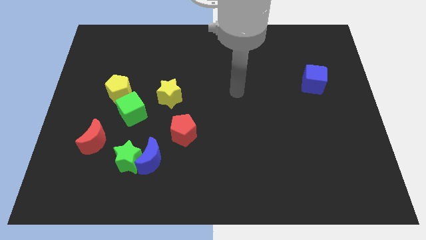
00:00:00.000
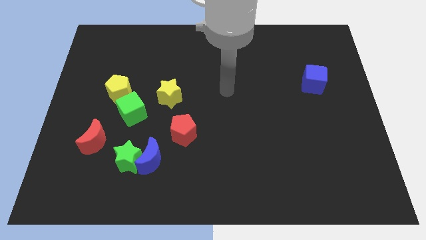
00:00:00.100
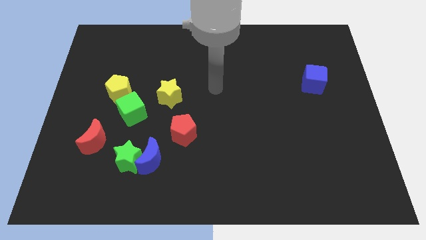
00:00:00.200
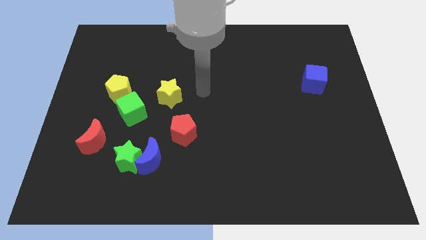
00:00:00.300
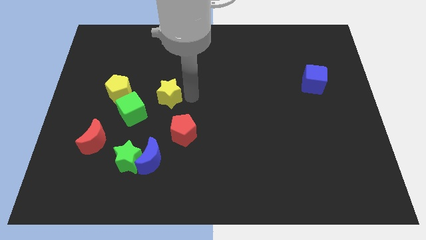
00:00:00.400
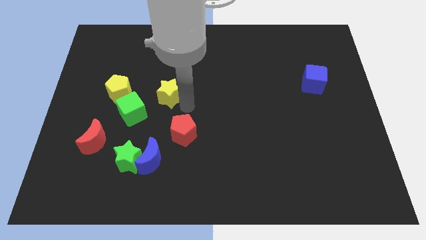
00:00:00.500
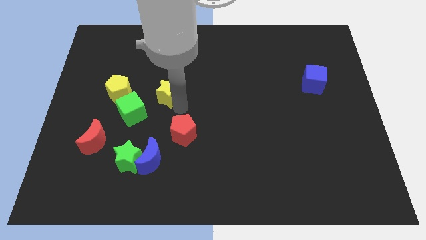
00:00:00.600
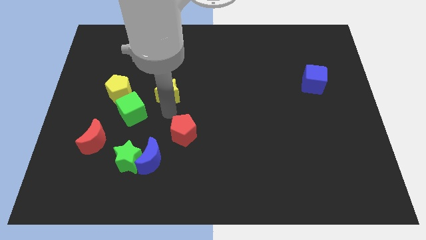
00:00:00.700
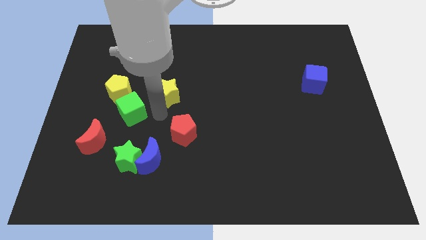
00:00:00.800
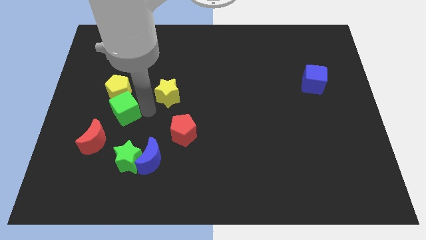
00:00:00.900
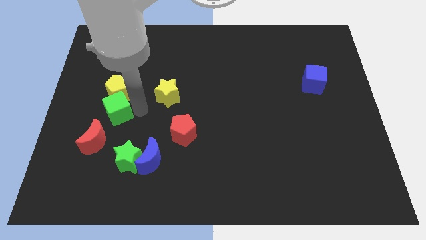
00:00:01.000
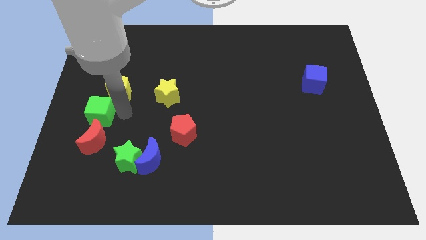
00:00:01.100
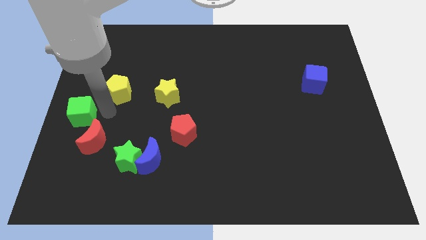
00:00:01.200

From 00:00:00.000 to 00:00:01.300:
pull the yellow pentagon apart from the green cube

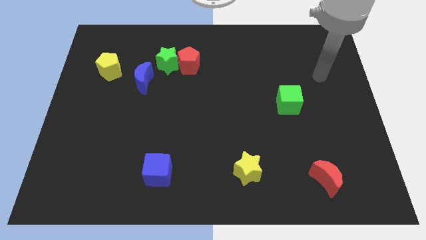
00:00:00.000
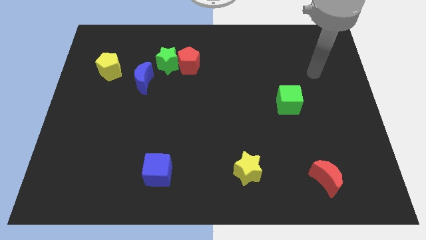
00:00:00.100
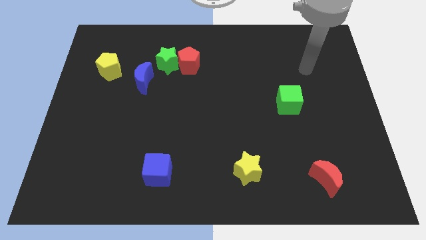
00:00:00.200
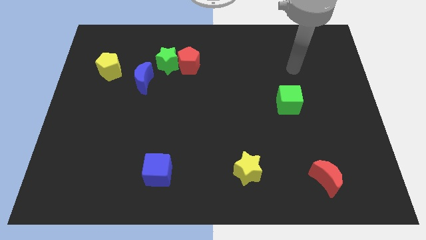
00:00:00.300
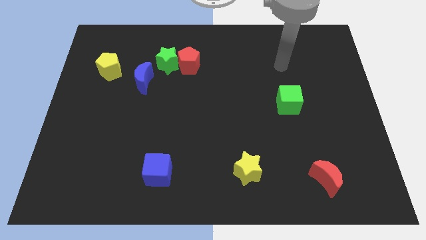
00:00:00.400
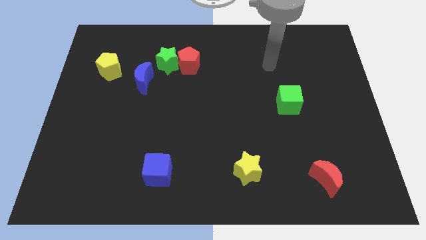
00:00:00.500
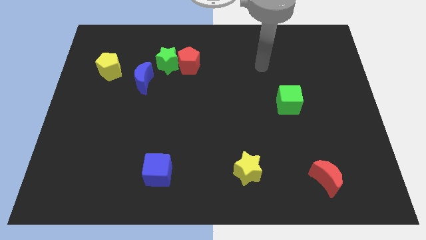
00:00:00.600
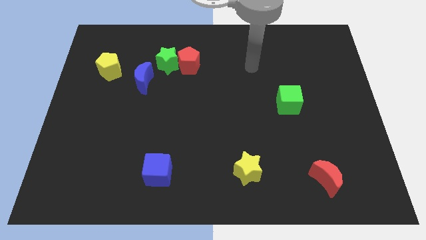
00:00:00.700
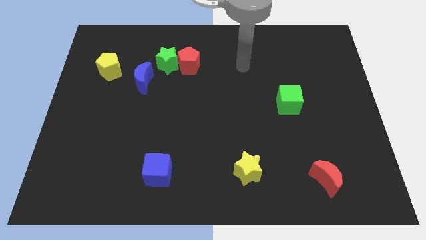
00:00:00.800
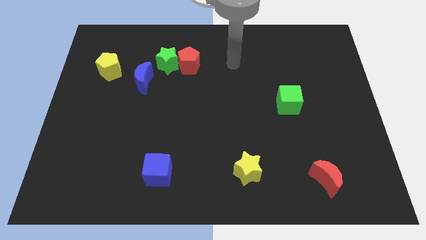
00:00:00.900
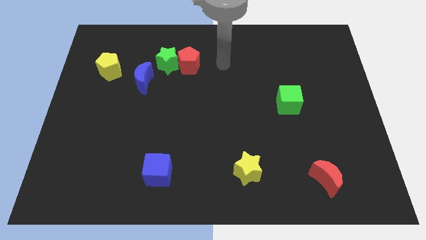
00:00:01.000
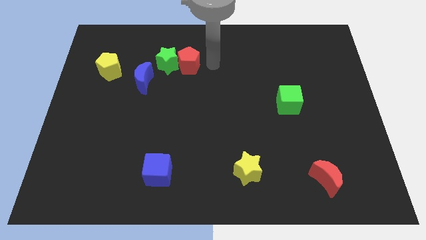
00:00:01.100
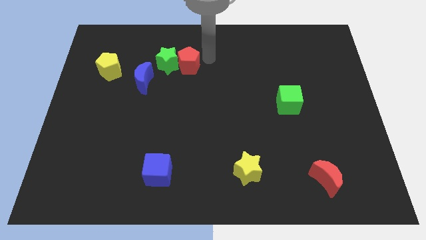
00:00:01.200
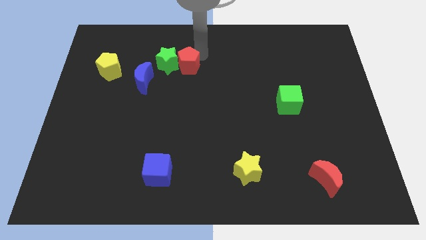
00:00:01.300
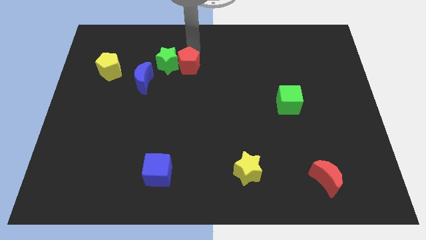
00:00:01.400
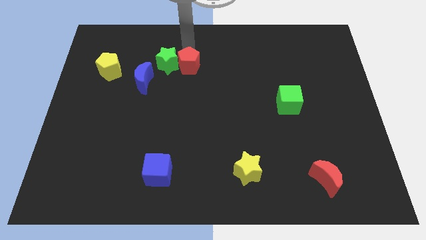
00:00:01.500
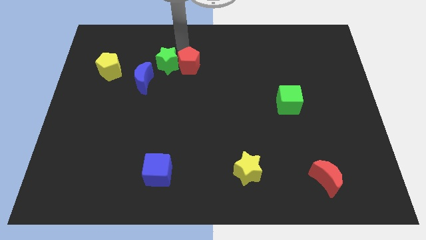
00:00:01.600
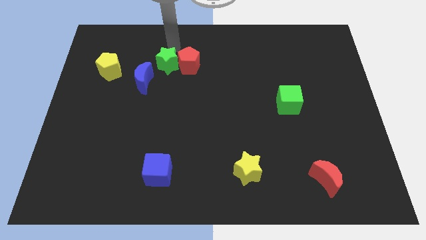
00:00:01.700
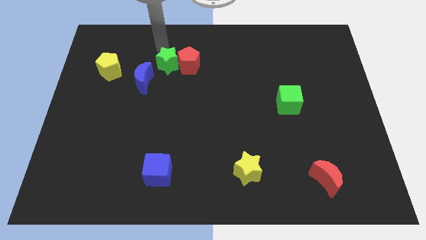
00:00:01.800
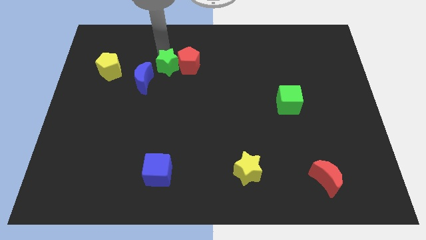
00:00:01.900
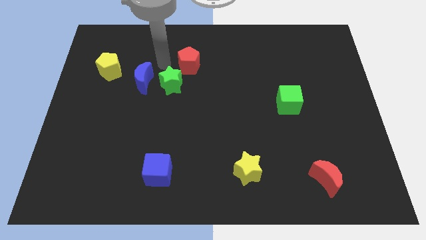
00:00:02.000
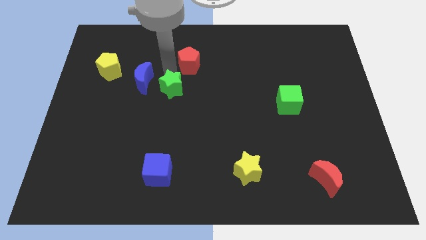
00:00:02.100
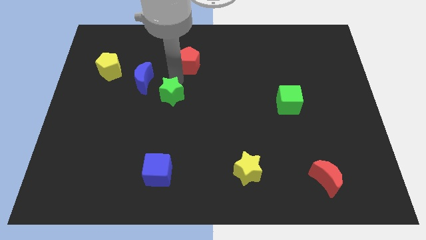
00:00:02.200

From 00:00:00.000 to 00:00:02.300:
pull the red pentagon apart from the green star

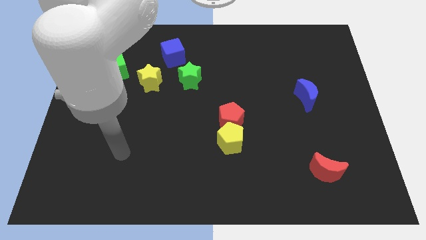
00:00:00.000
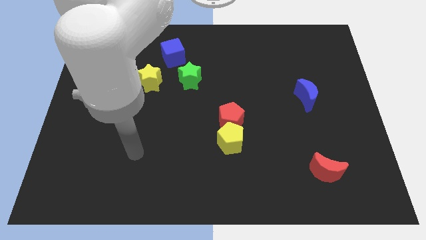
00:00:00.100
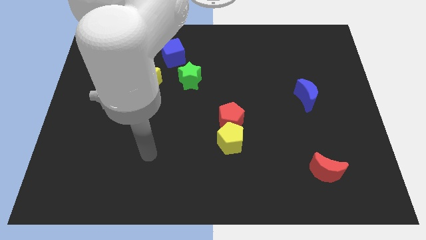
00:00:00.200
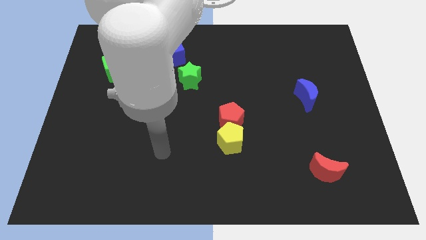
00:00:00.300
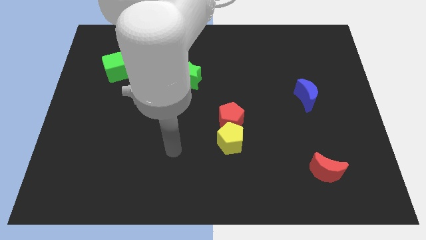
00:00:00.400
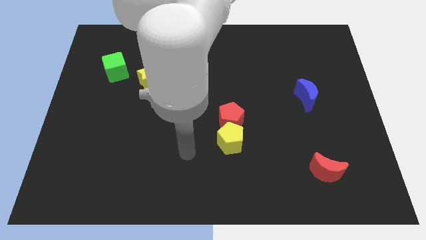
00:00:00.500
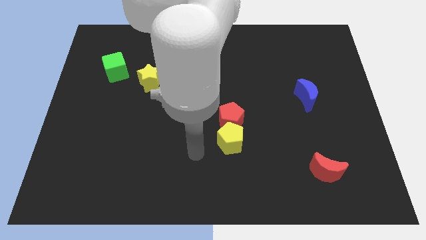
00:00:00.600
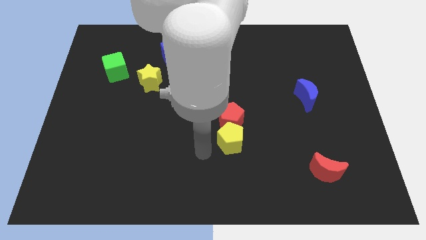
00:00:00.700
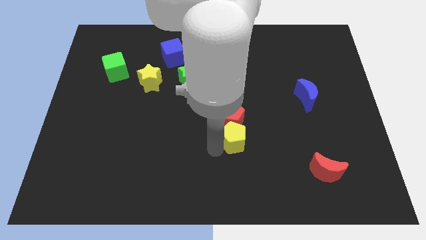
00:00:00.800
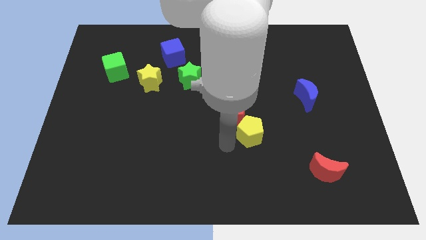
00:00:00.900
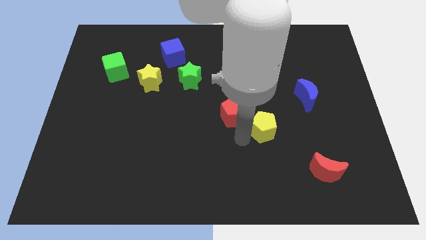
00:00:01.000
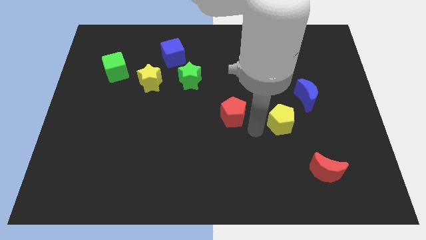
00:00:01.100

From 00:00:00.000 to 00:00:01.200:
move the red pentagon away from the yellow pentagon

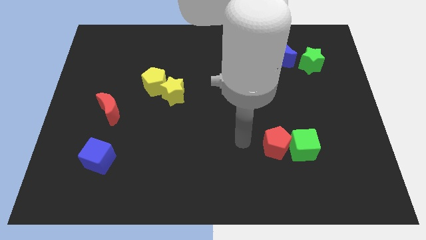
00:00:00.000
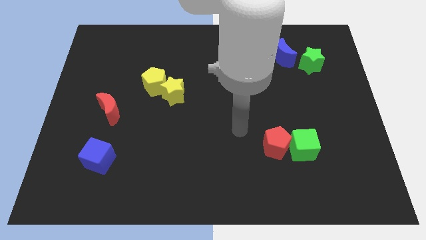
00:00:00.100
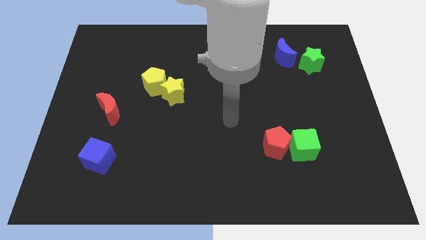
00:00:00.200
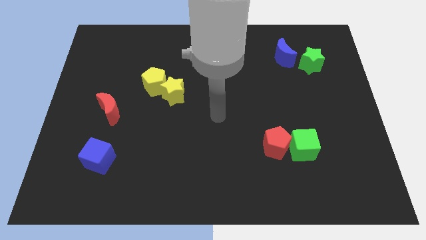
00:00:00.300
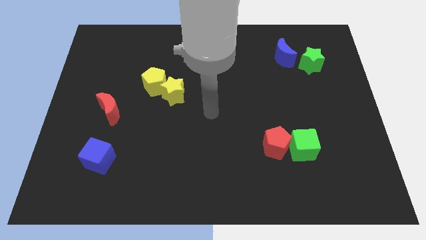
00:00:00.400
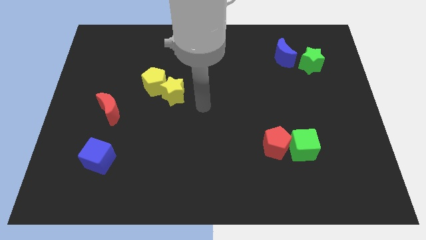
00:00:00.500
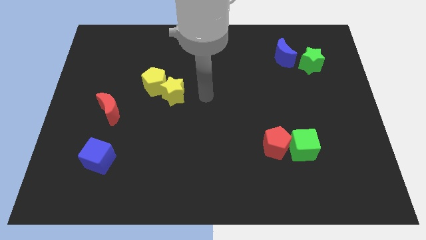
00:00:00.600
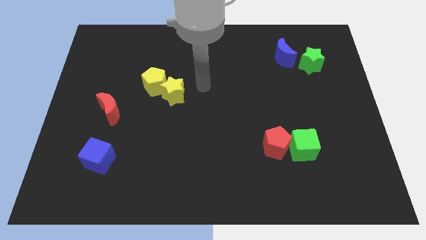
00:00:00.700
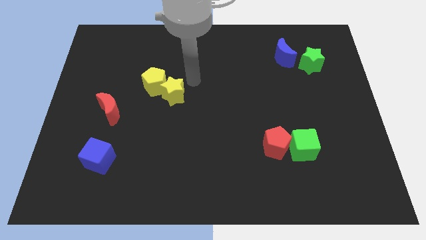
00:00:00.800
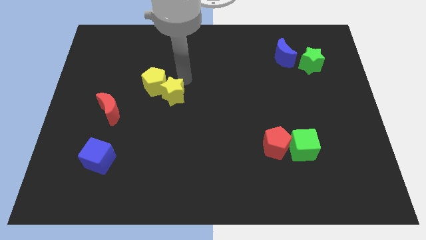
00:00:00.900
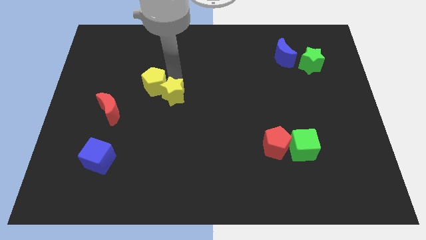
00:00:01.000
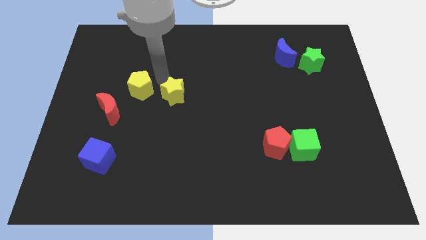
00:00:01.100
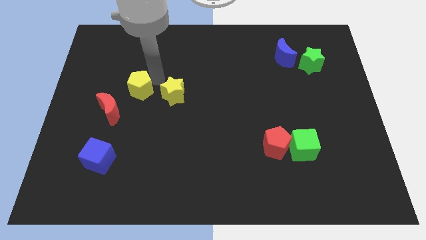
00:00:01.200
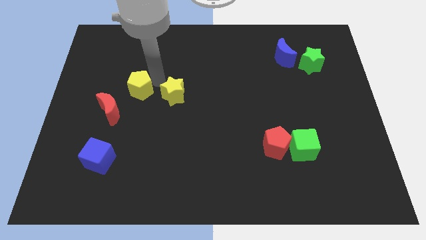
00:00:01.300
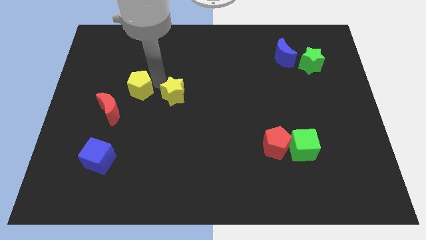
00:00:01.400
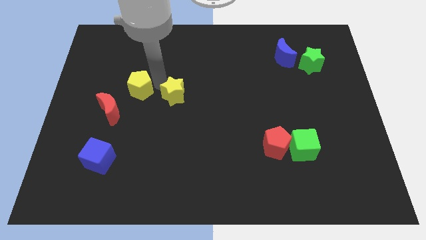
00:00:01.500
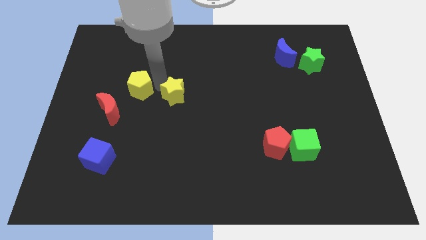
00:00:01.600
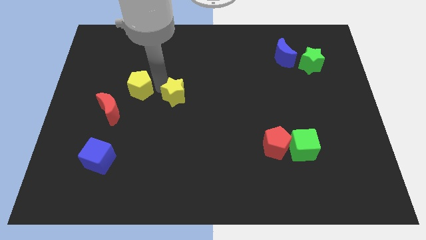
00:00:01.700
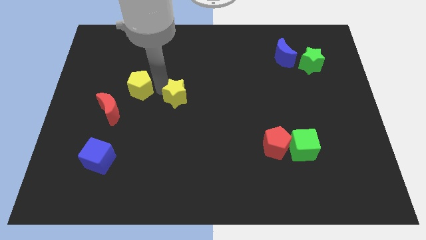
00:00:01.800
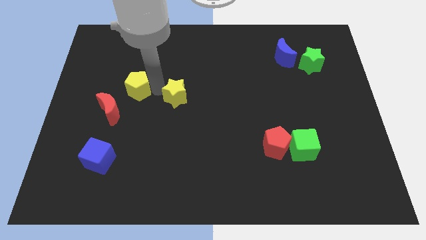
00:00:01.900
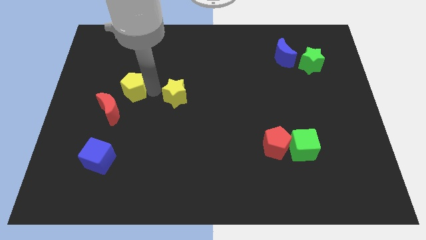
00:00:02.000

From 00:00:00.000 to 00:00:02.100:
separate the yellow star from the yellow pentagon

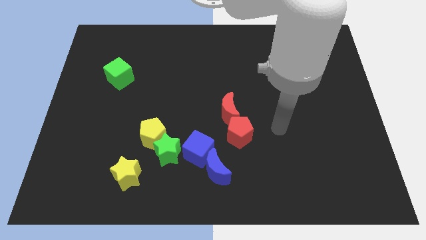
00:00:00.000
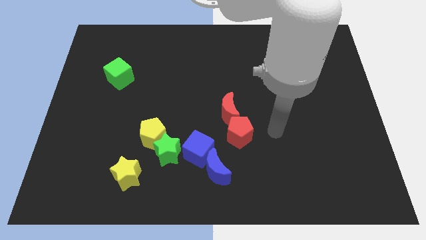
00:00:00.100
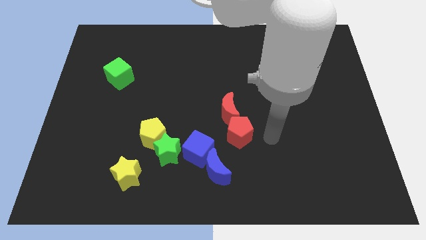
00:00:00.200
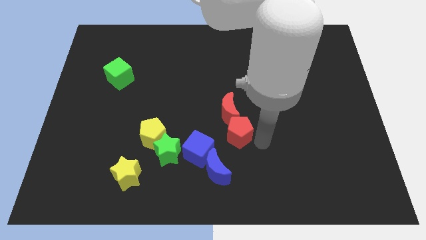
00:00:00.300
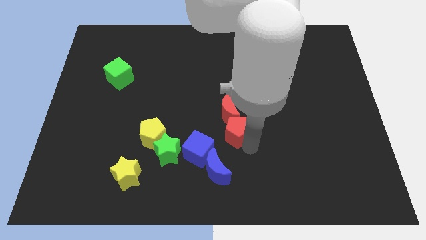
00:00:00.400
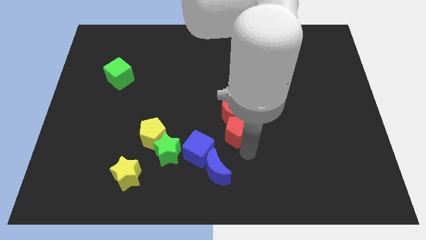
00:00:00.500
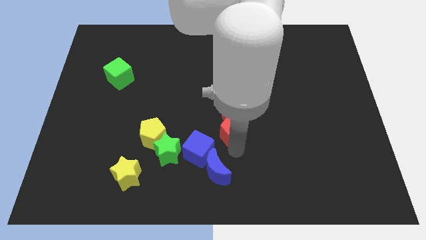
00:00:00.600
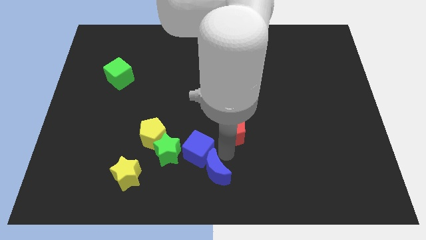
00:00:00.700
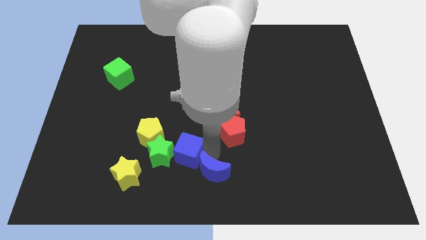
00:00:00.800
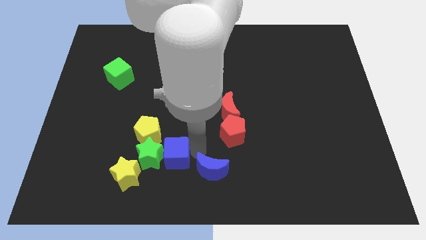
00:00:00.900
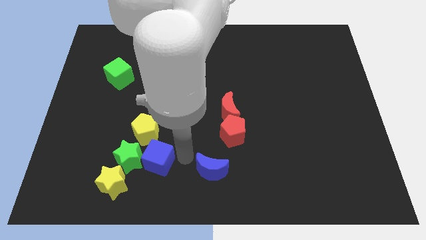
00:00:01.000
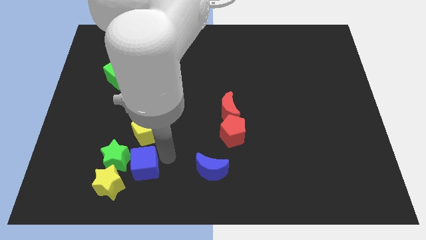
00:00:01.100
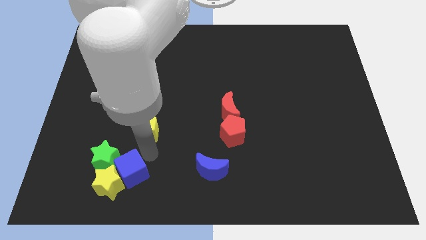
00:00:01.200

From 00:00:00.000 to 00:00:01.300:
move the yellow pentagon away from the green star

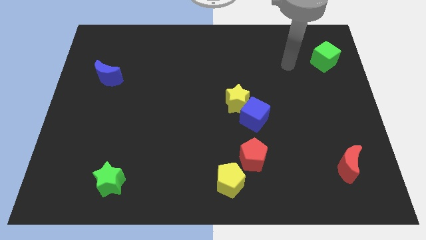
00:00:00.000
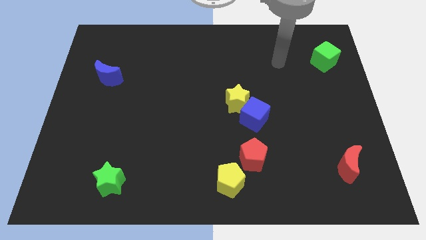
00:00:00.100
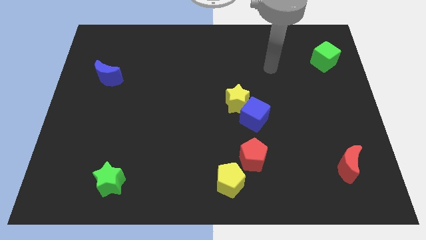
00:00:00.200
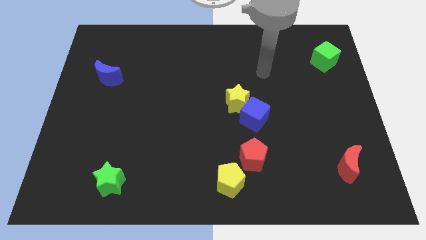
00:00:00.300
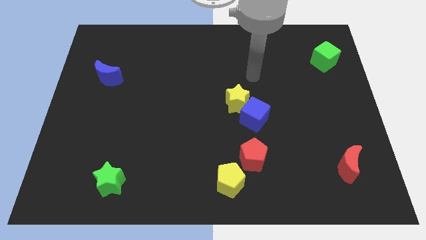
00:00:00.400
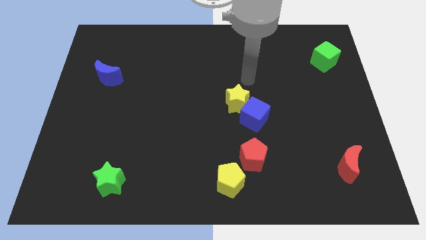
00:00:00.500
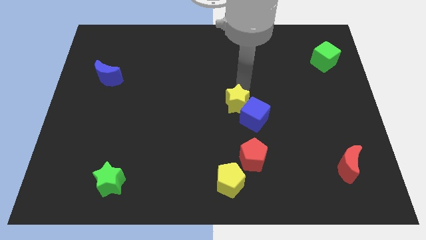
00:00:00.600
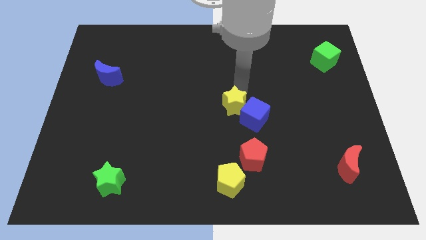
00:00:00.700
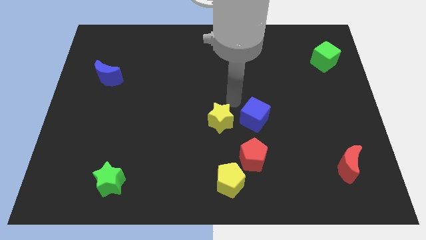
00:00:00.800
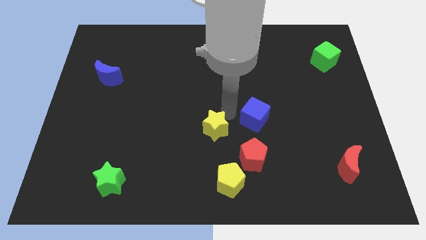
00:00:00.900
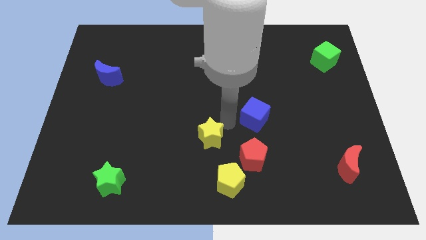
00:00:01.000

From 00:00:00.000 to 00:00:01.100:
separate the blue cube from the yellow star
